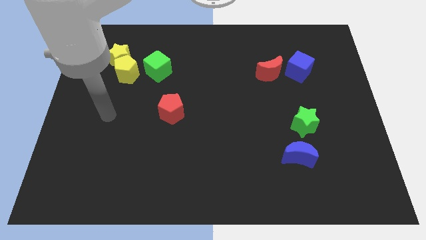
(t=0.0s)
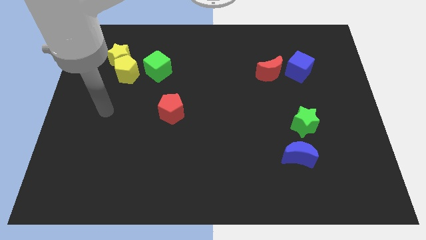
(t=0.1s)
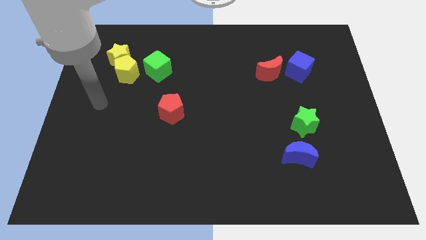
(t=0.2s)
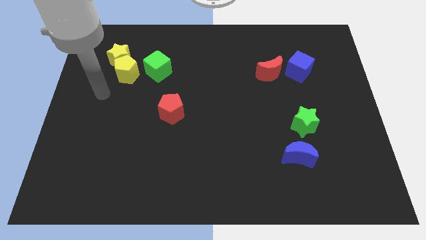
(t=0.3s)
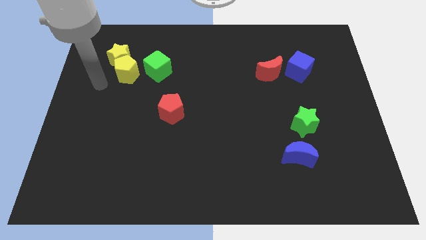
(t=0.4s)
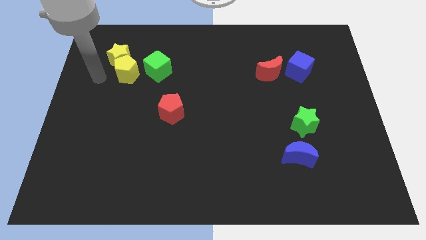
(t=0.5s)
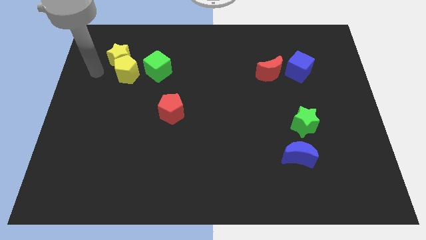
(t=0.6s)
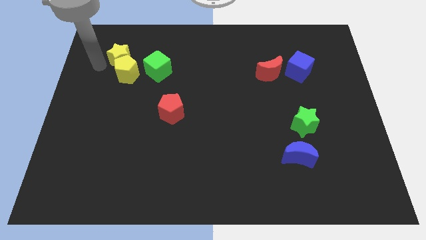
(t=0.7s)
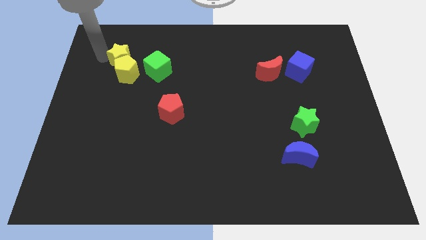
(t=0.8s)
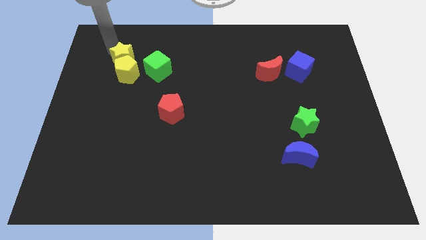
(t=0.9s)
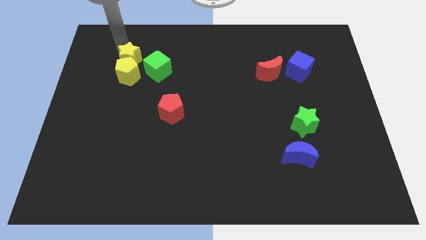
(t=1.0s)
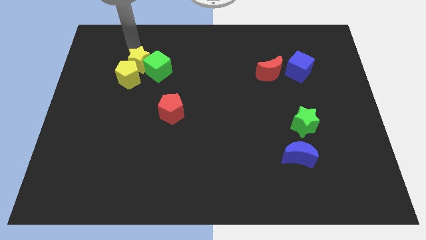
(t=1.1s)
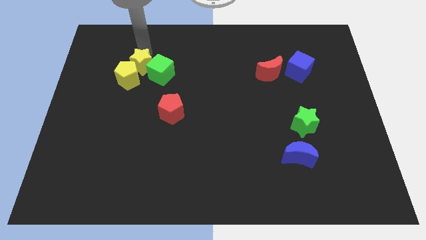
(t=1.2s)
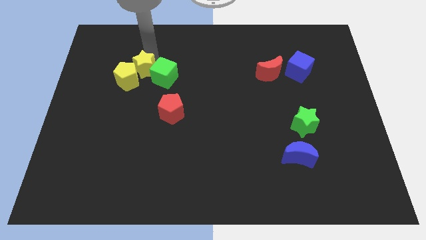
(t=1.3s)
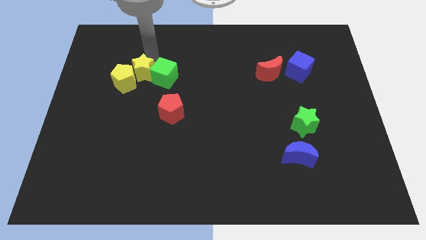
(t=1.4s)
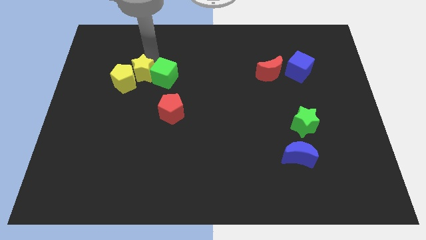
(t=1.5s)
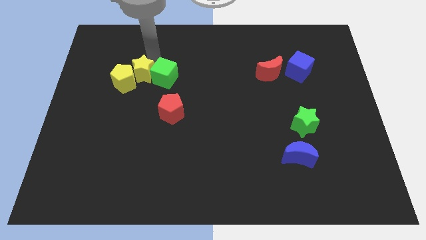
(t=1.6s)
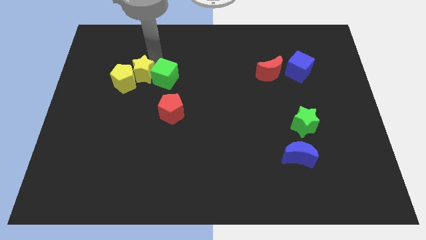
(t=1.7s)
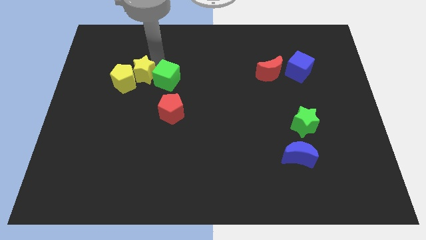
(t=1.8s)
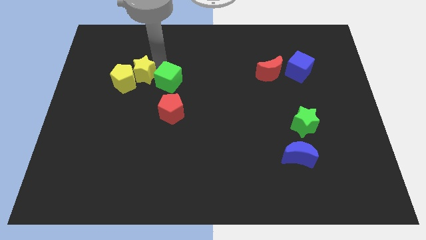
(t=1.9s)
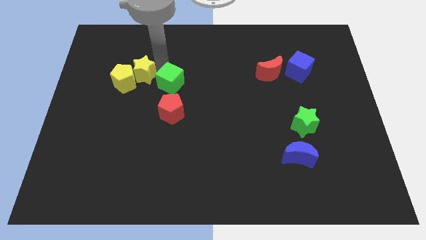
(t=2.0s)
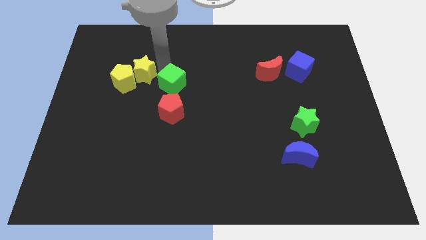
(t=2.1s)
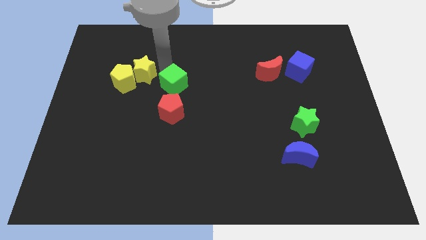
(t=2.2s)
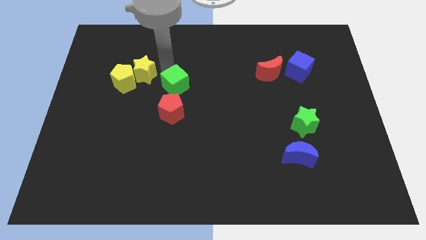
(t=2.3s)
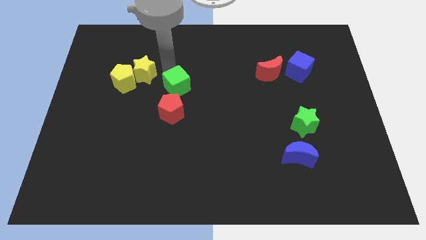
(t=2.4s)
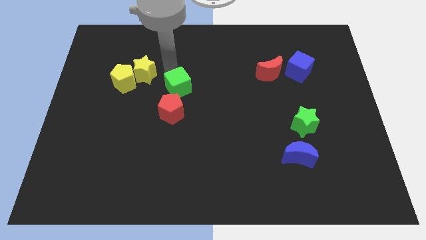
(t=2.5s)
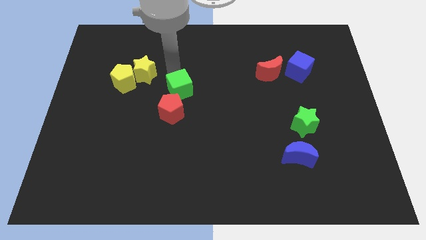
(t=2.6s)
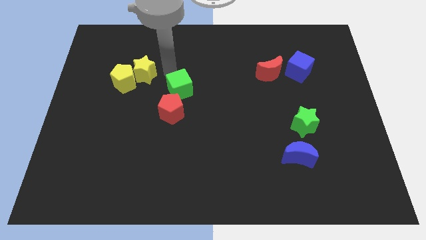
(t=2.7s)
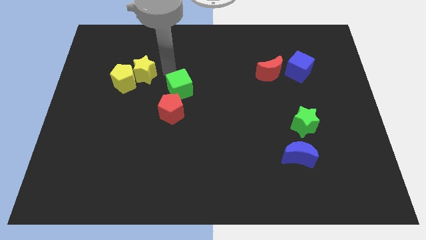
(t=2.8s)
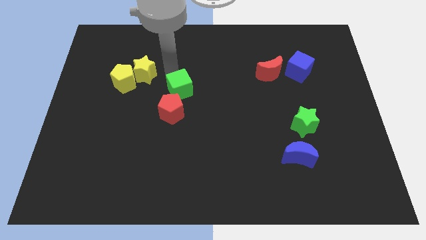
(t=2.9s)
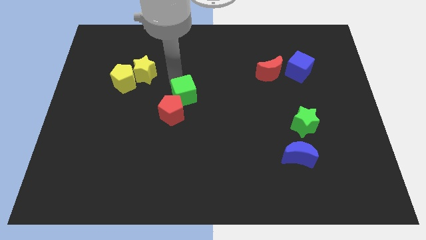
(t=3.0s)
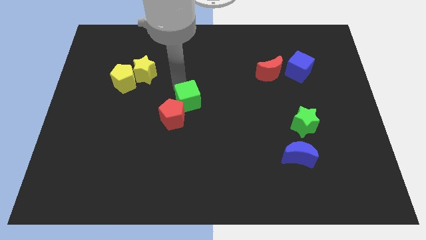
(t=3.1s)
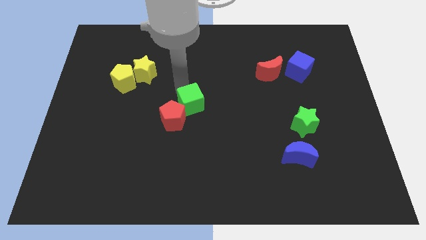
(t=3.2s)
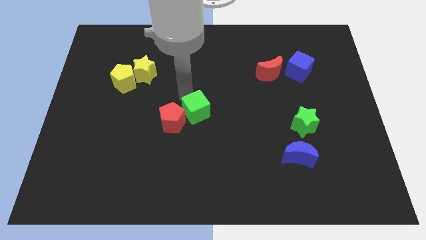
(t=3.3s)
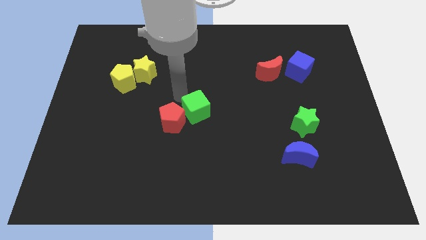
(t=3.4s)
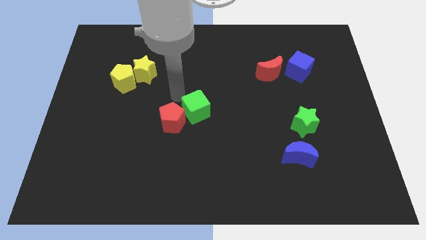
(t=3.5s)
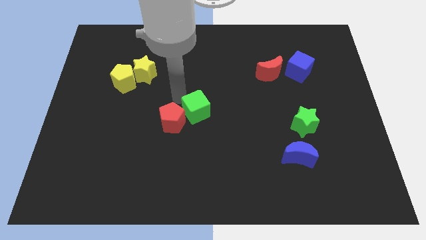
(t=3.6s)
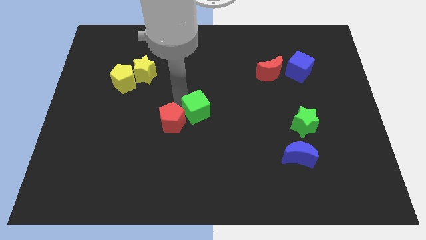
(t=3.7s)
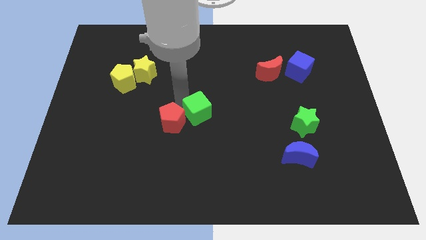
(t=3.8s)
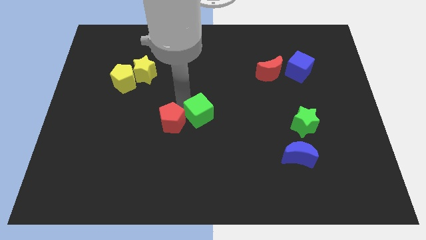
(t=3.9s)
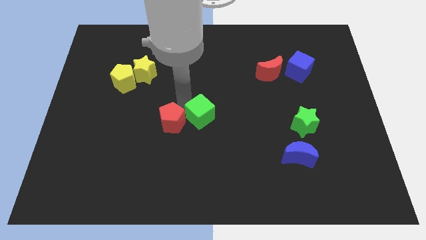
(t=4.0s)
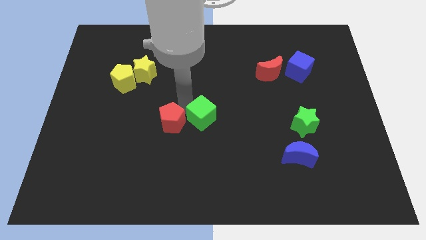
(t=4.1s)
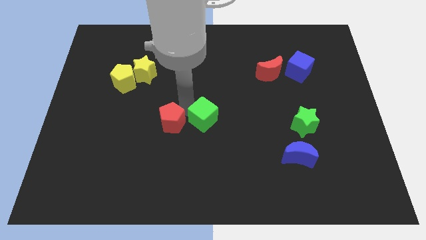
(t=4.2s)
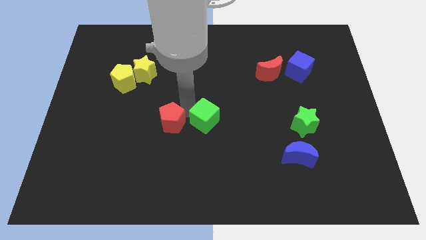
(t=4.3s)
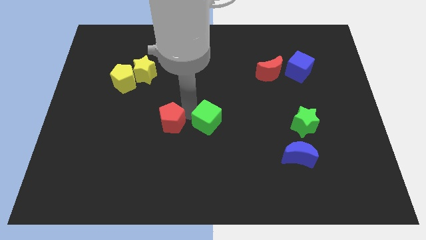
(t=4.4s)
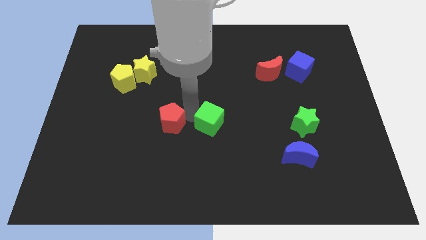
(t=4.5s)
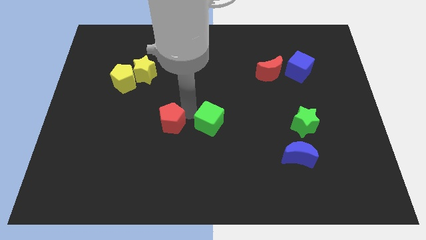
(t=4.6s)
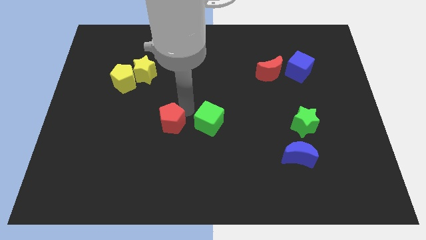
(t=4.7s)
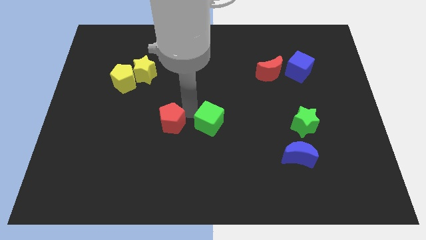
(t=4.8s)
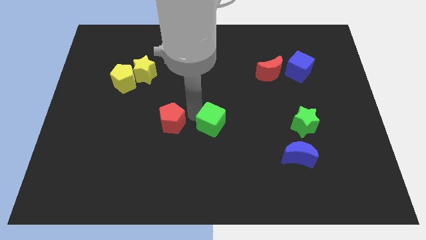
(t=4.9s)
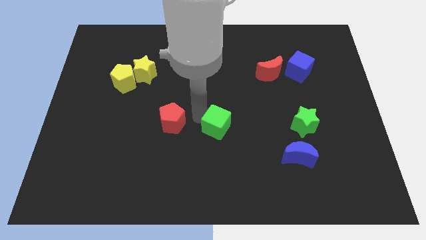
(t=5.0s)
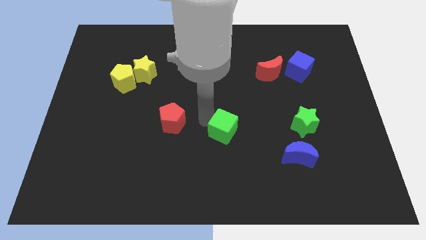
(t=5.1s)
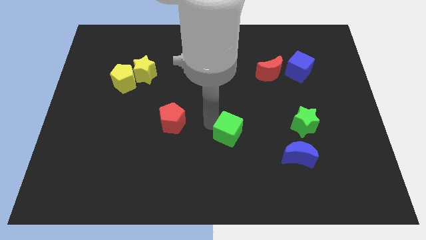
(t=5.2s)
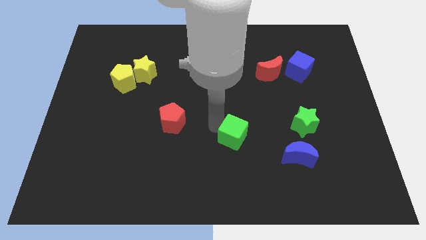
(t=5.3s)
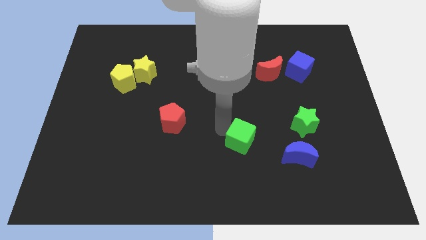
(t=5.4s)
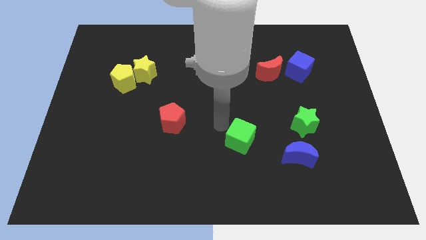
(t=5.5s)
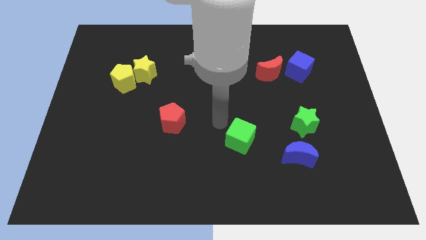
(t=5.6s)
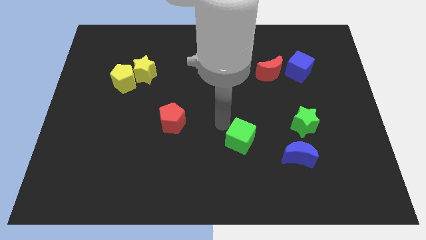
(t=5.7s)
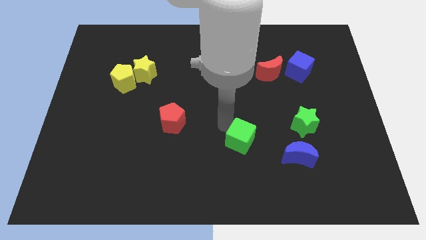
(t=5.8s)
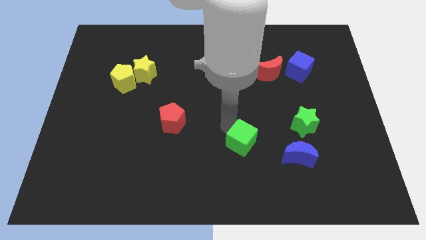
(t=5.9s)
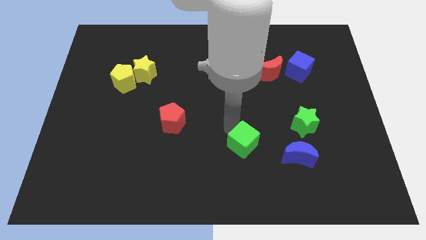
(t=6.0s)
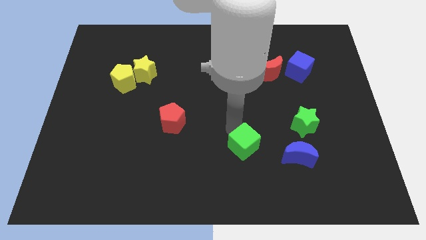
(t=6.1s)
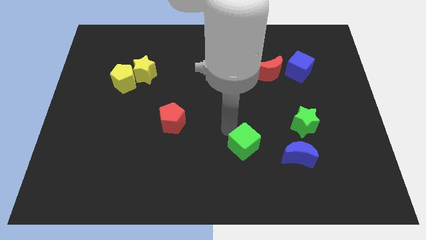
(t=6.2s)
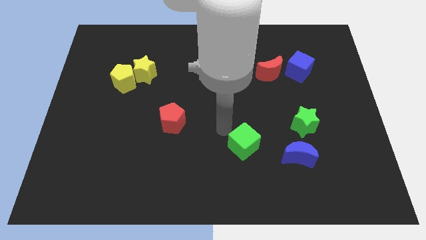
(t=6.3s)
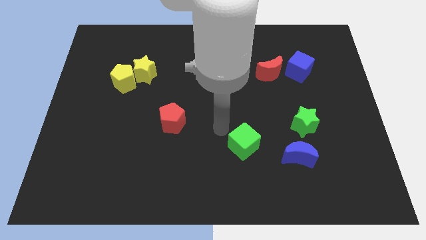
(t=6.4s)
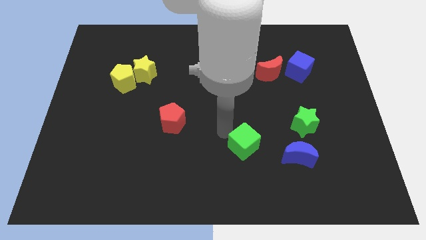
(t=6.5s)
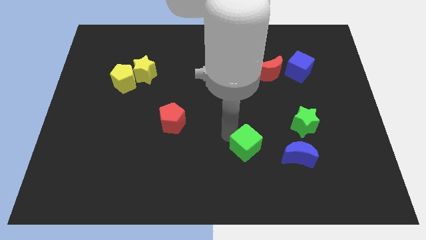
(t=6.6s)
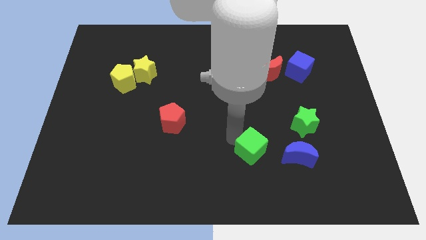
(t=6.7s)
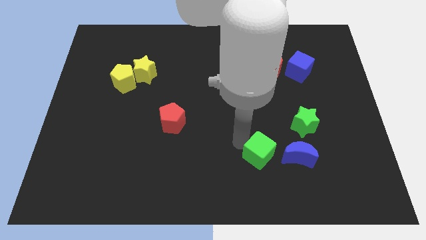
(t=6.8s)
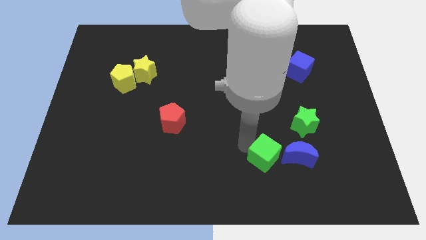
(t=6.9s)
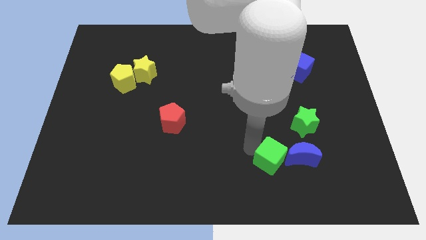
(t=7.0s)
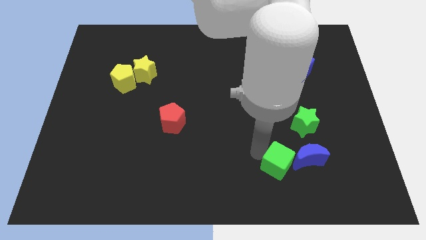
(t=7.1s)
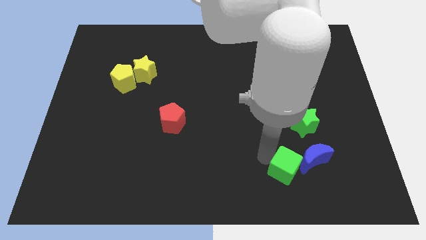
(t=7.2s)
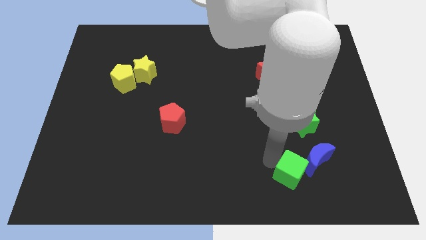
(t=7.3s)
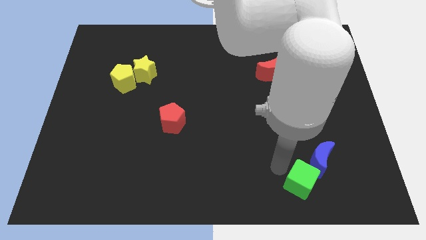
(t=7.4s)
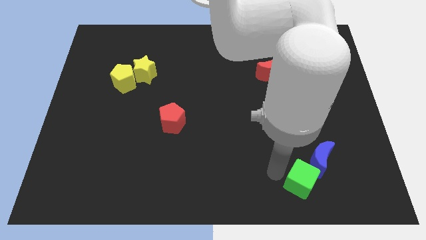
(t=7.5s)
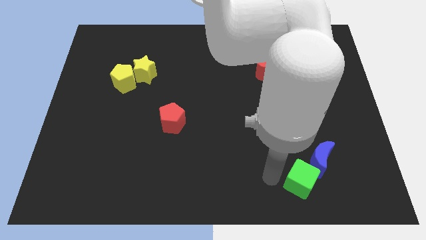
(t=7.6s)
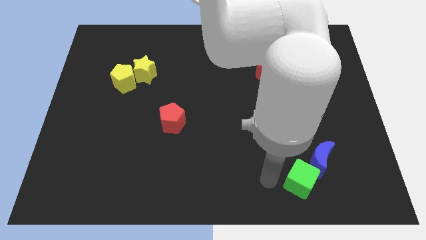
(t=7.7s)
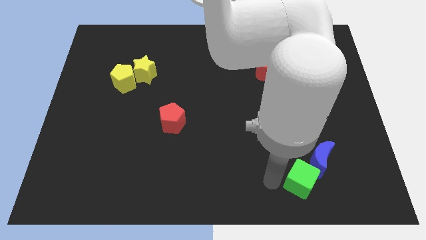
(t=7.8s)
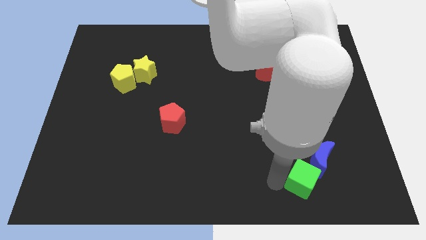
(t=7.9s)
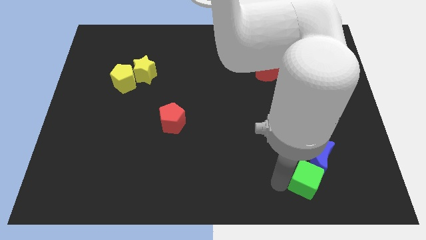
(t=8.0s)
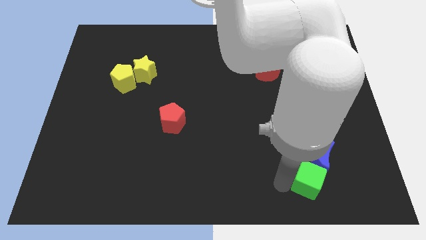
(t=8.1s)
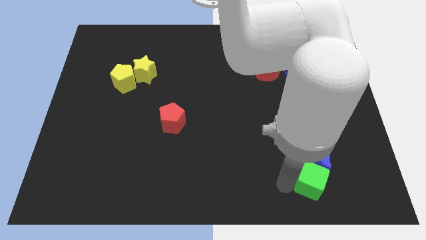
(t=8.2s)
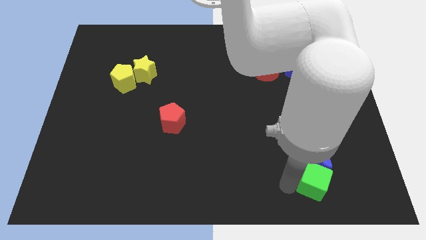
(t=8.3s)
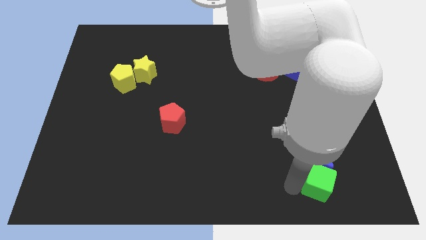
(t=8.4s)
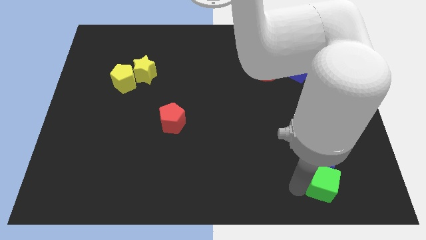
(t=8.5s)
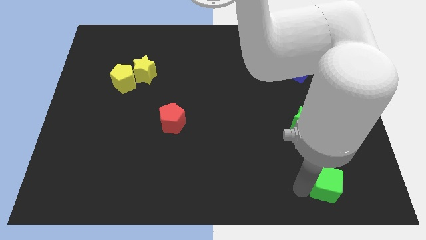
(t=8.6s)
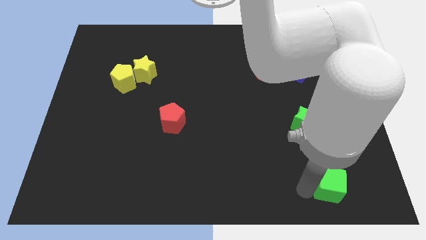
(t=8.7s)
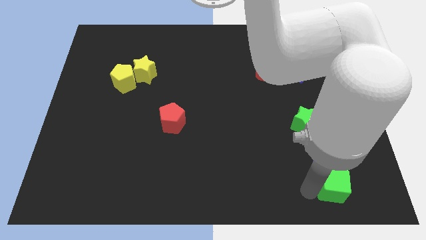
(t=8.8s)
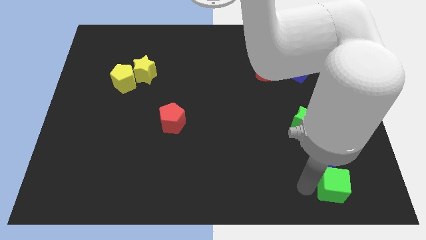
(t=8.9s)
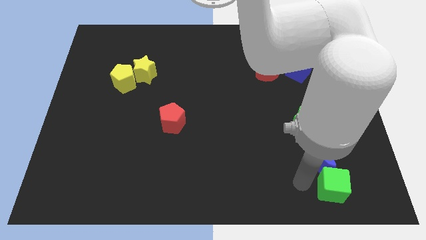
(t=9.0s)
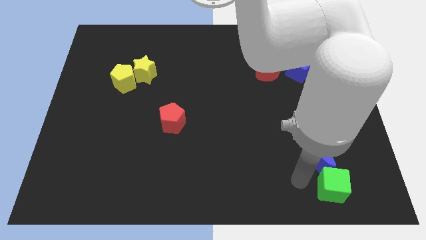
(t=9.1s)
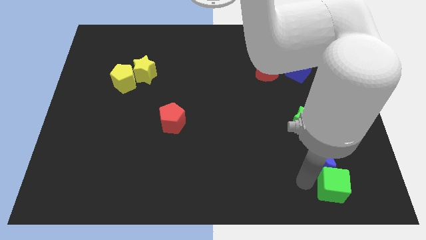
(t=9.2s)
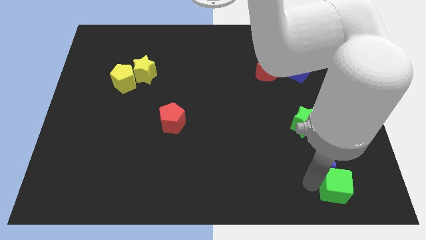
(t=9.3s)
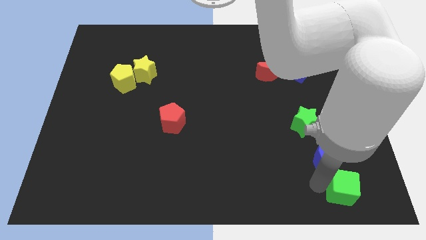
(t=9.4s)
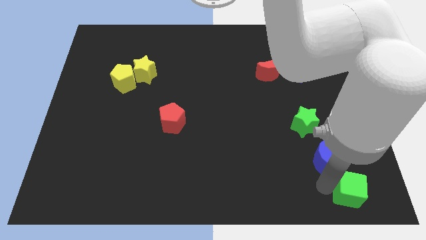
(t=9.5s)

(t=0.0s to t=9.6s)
slide the green cube to the bottom right corner
